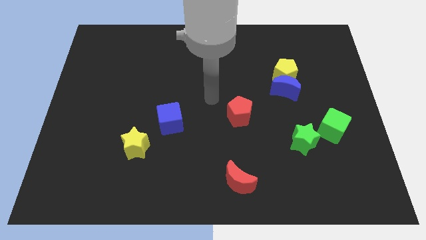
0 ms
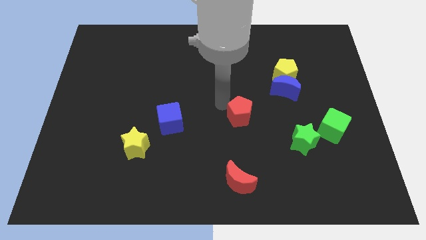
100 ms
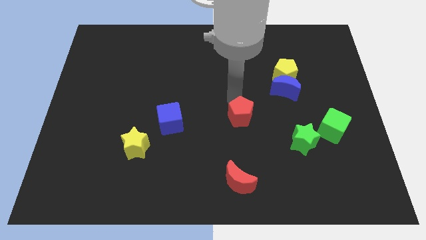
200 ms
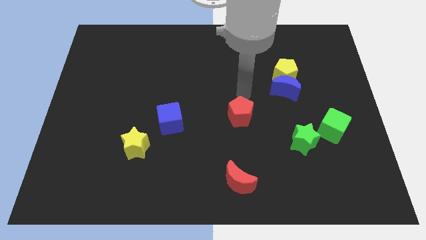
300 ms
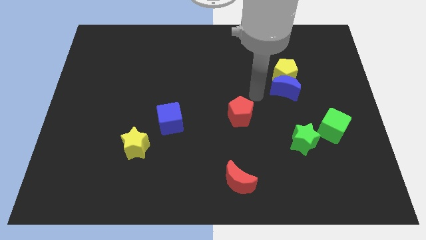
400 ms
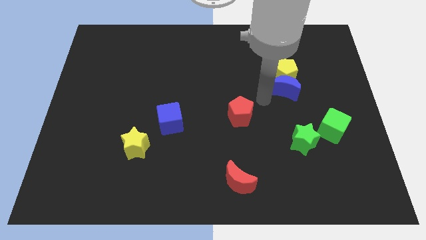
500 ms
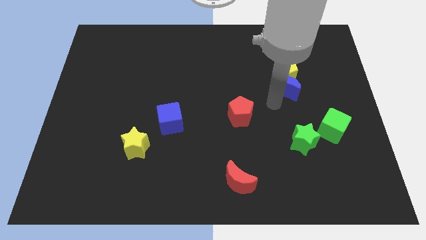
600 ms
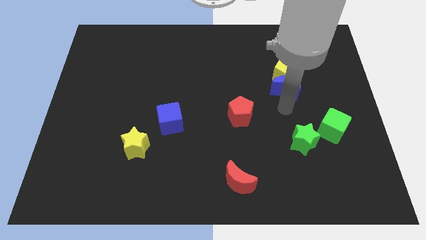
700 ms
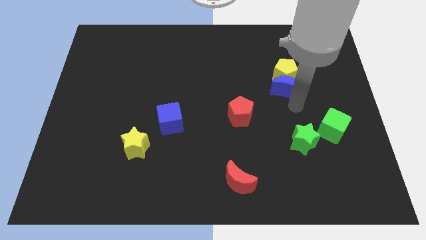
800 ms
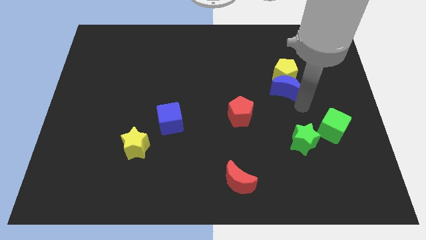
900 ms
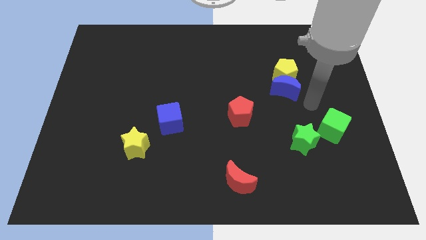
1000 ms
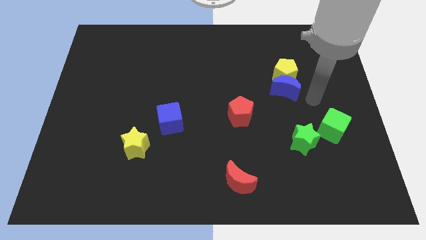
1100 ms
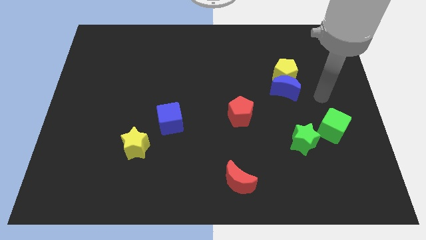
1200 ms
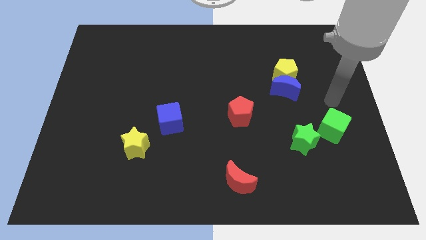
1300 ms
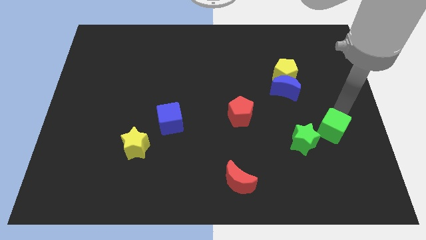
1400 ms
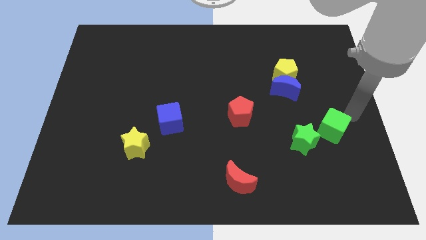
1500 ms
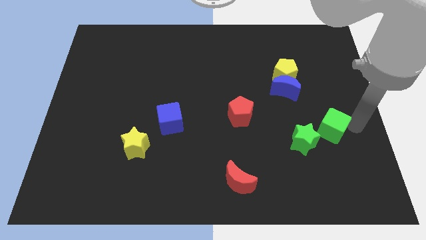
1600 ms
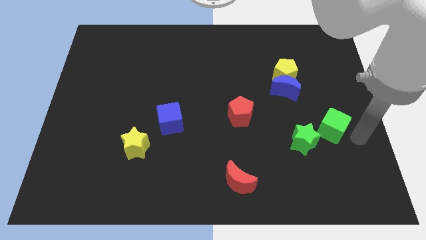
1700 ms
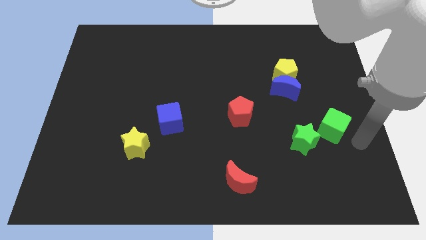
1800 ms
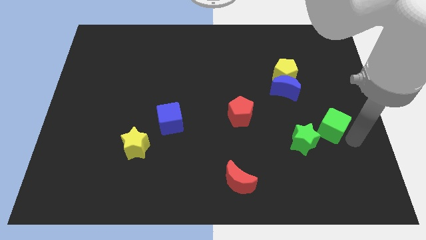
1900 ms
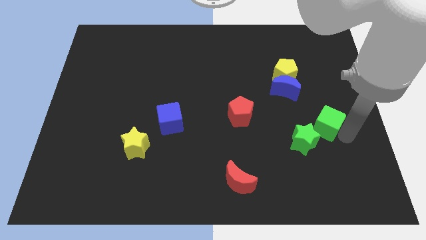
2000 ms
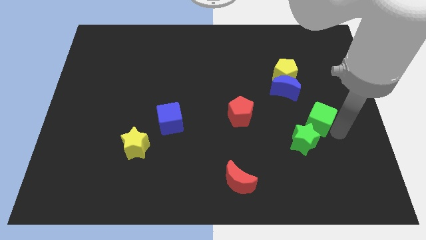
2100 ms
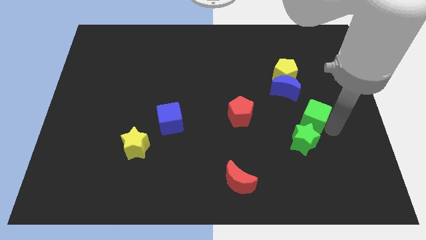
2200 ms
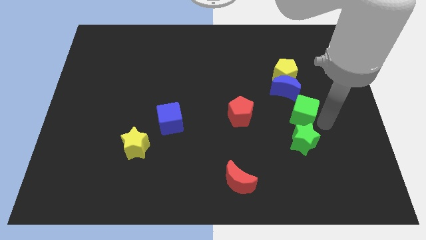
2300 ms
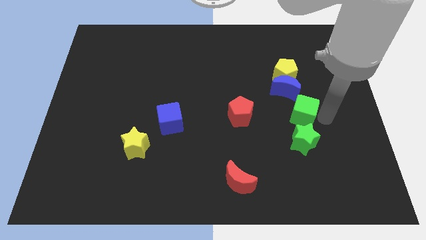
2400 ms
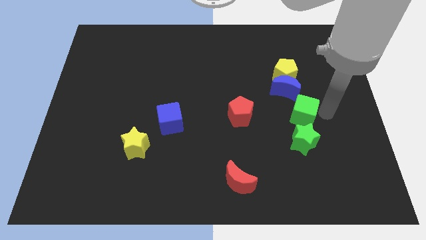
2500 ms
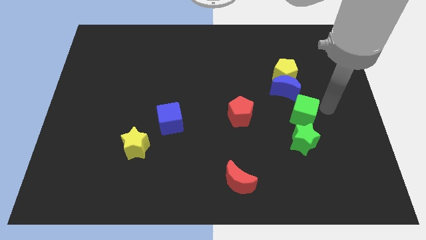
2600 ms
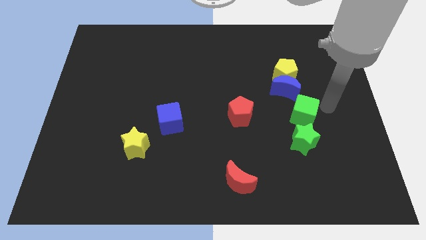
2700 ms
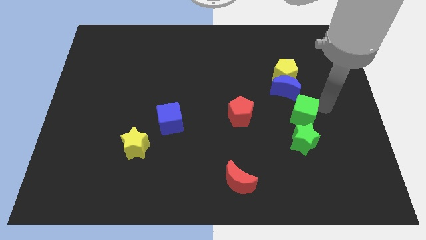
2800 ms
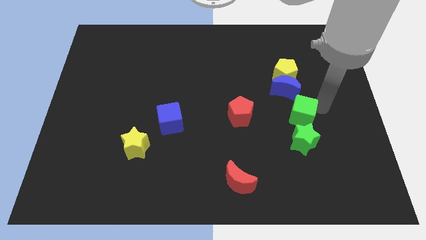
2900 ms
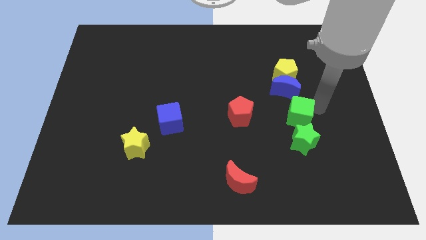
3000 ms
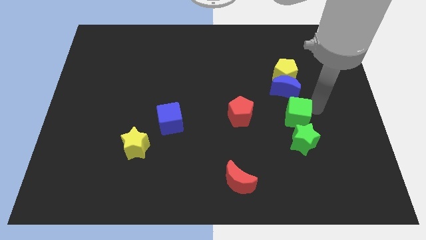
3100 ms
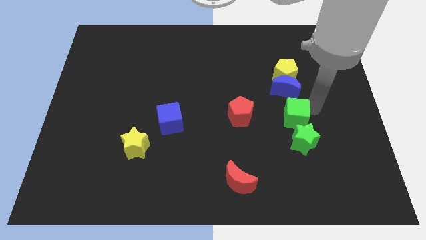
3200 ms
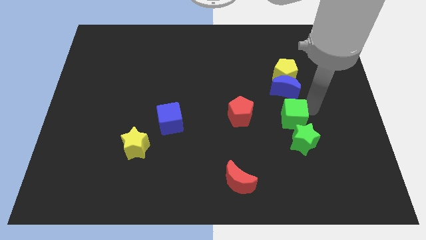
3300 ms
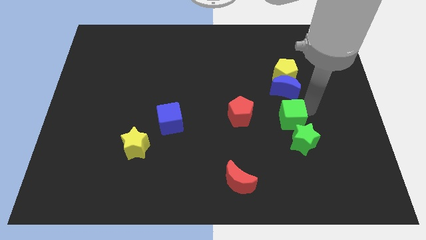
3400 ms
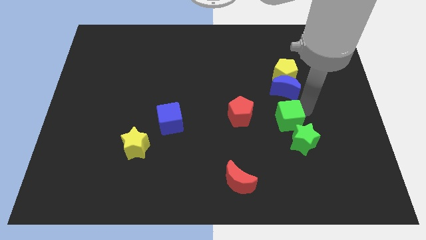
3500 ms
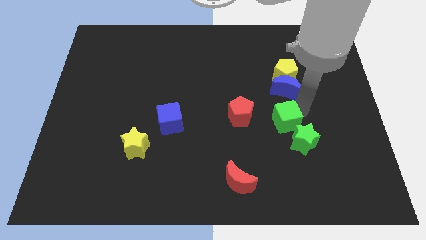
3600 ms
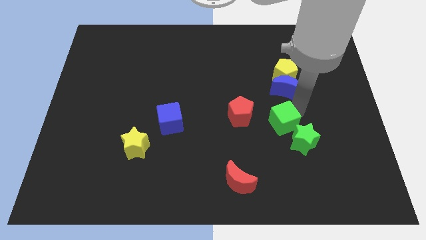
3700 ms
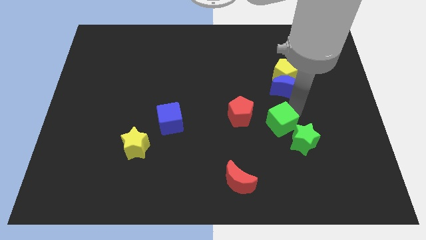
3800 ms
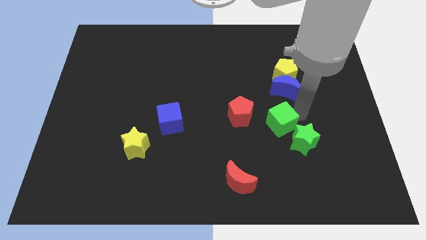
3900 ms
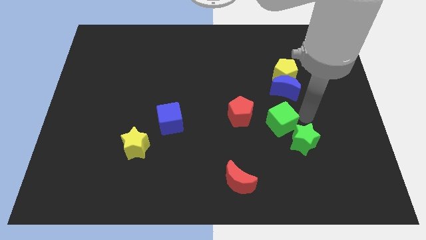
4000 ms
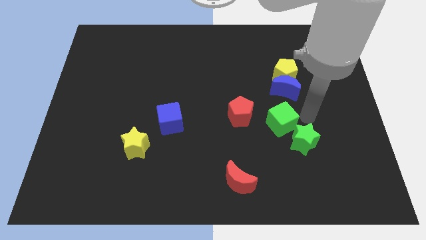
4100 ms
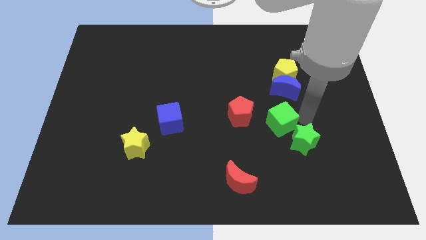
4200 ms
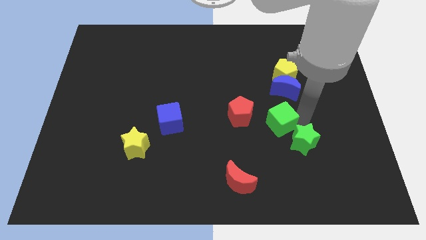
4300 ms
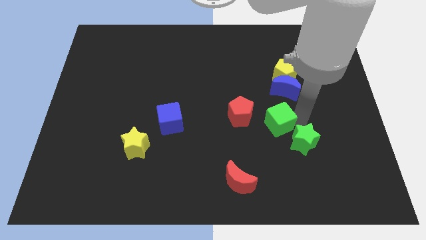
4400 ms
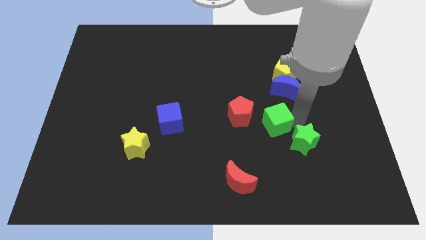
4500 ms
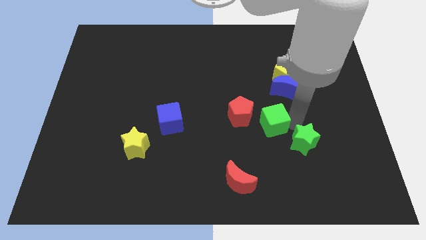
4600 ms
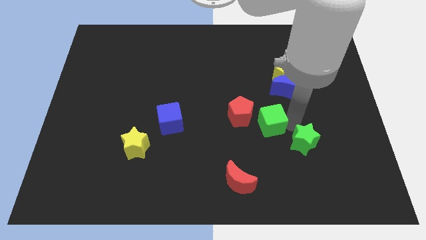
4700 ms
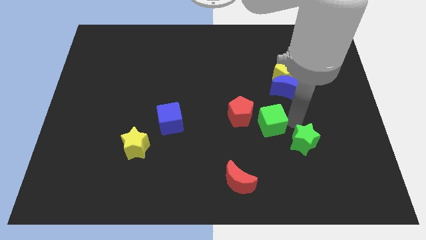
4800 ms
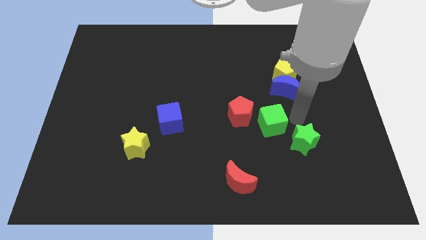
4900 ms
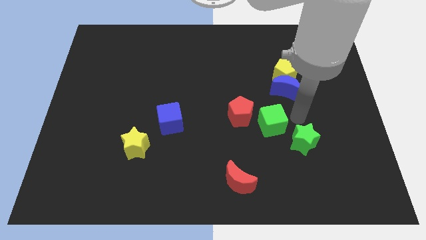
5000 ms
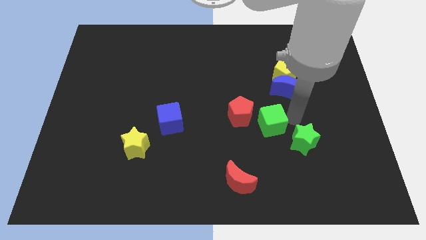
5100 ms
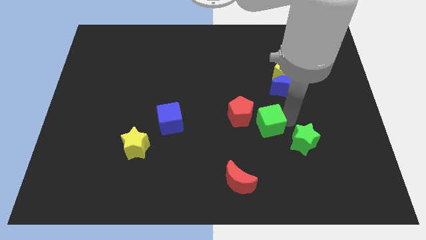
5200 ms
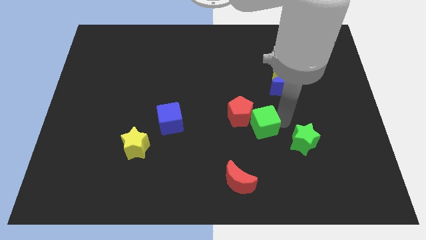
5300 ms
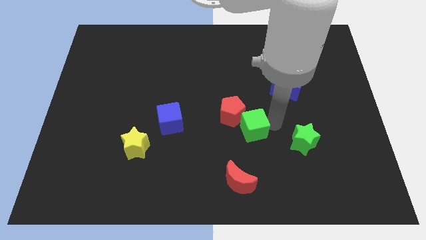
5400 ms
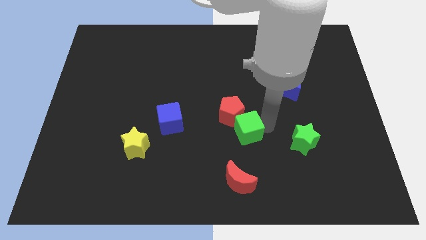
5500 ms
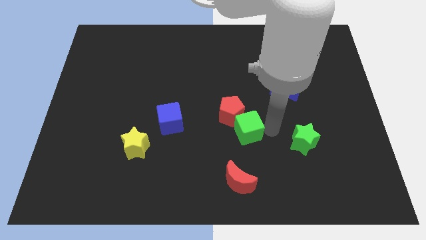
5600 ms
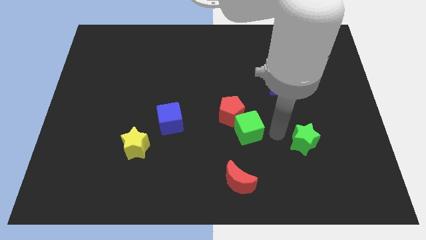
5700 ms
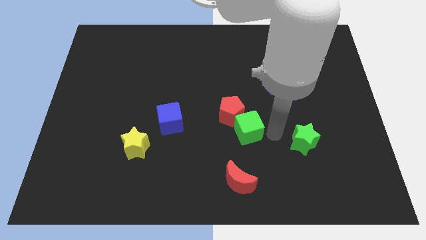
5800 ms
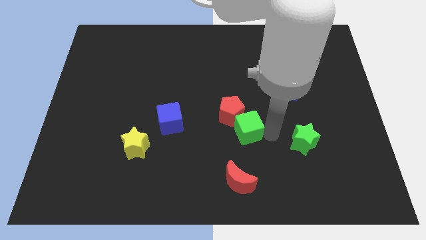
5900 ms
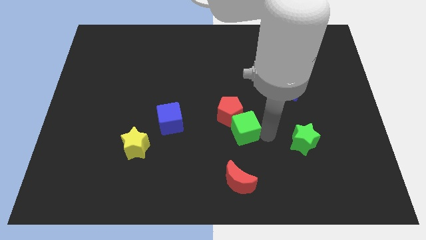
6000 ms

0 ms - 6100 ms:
slide the green cube to the left

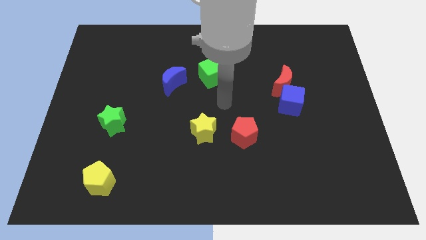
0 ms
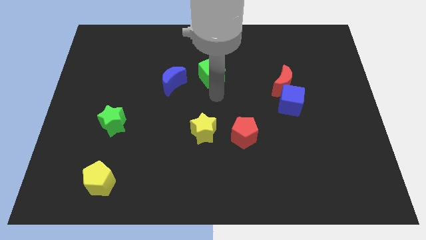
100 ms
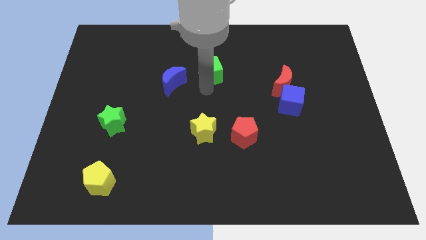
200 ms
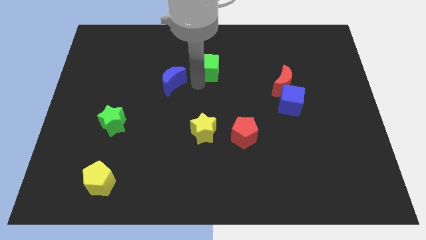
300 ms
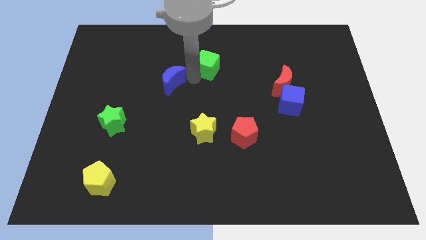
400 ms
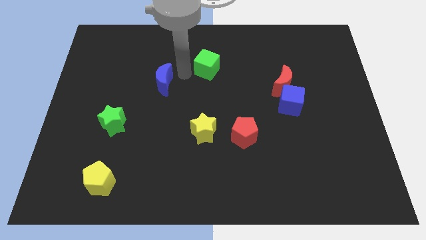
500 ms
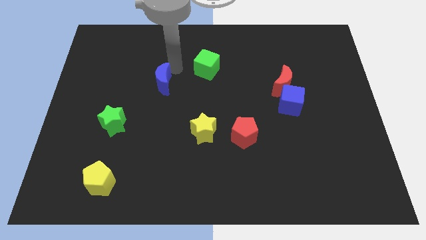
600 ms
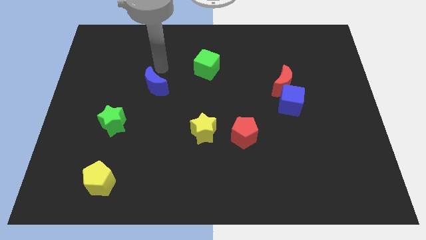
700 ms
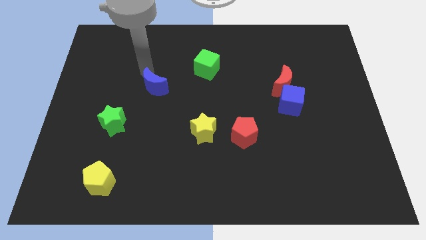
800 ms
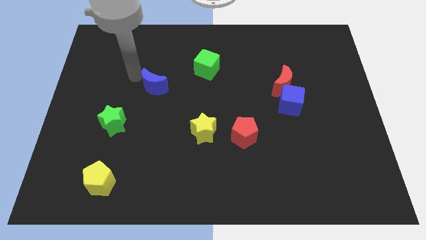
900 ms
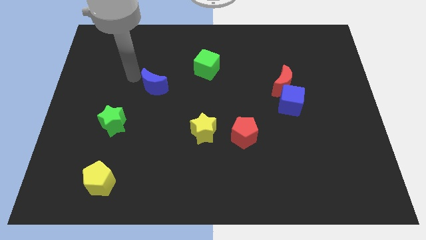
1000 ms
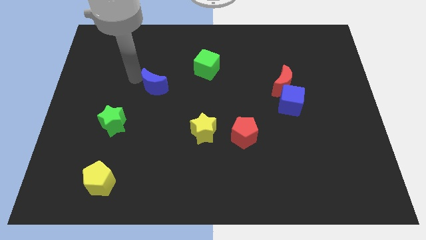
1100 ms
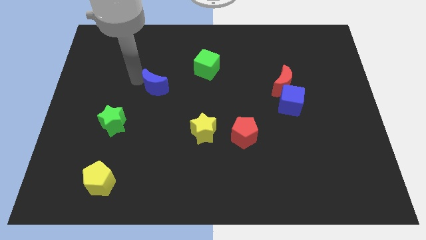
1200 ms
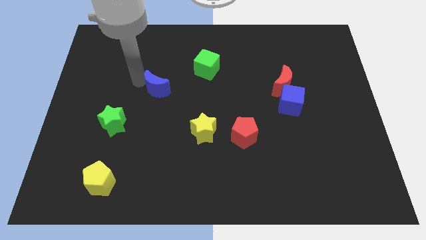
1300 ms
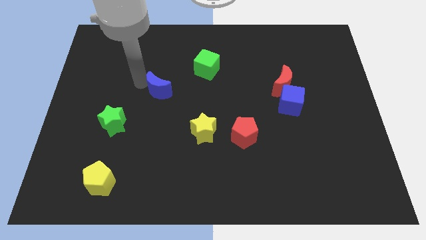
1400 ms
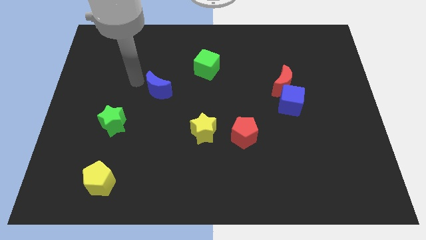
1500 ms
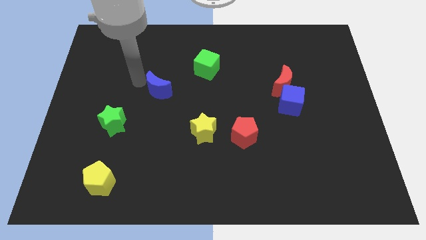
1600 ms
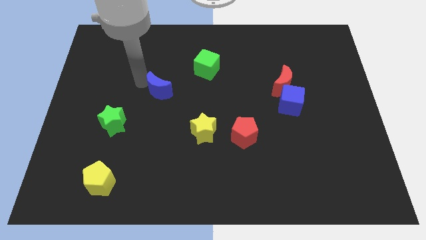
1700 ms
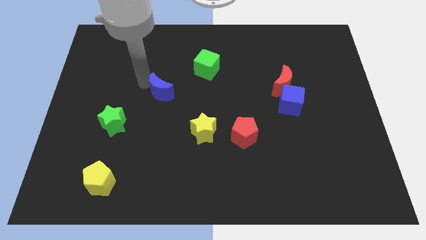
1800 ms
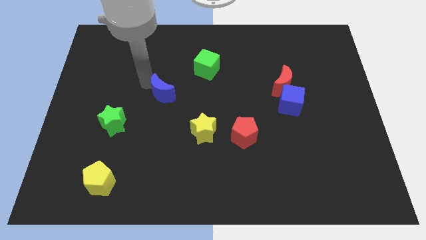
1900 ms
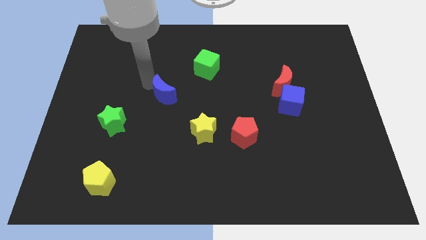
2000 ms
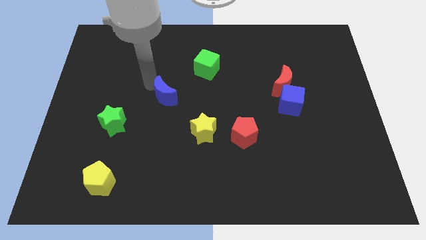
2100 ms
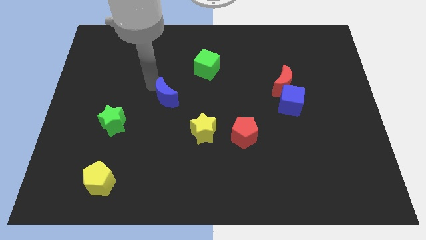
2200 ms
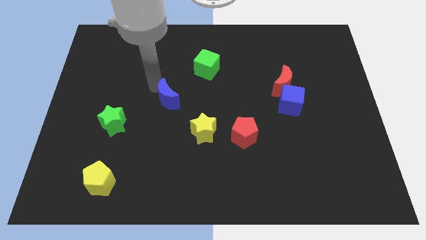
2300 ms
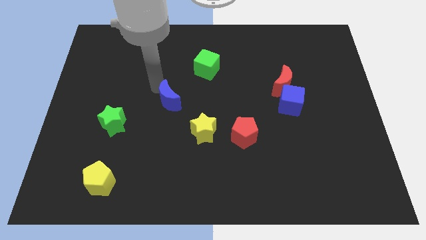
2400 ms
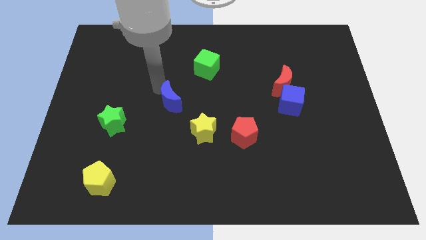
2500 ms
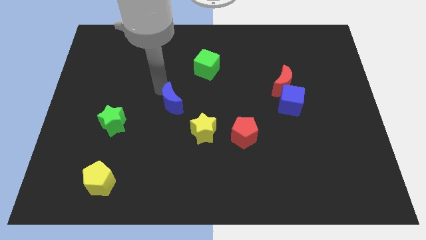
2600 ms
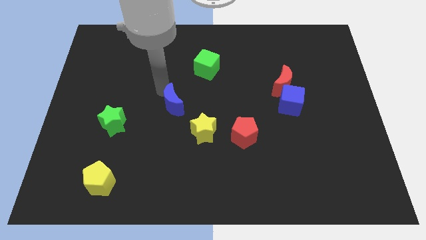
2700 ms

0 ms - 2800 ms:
slide the blue moon somewhat downwards
